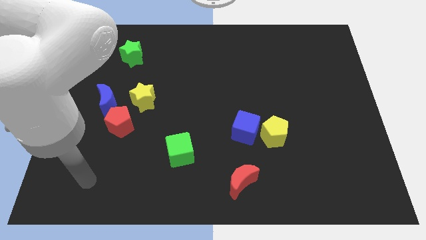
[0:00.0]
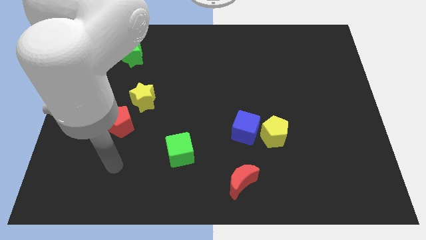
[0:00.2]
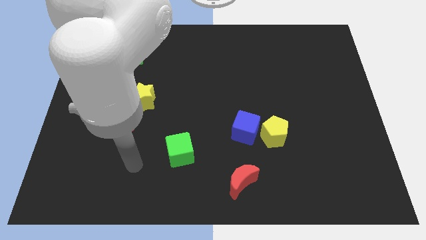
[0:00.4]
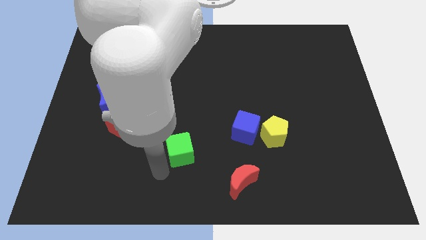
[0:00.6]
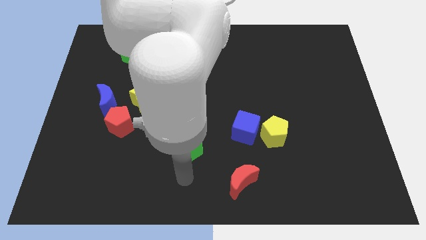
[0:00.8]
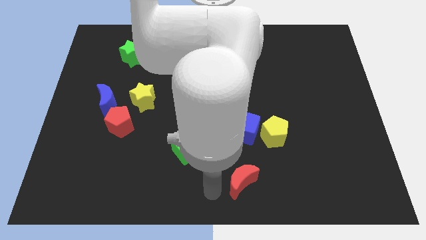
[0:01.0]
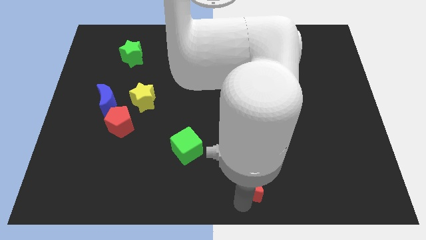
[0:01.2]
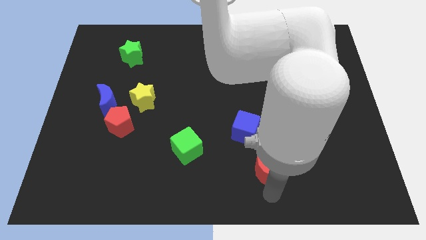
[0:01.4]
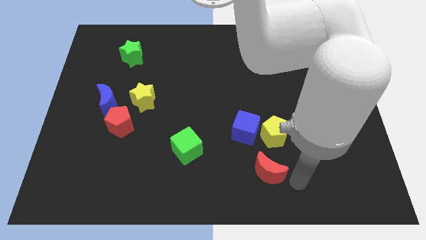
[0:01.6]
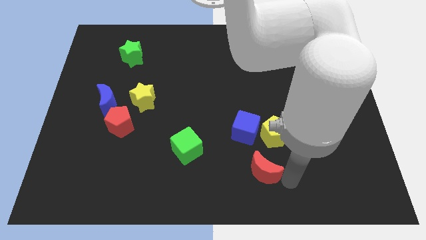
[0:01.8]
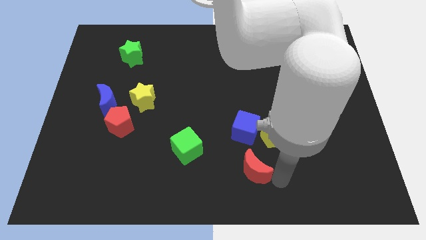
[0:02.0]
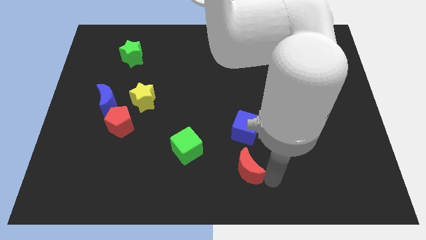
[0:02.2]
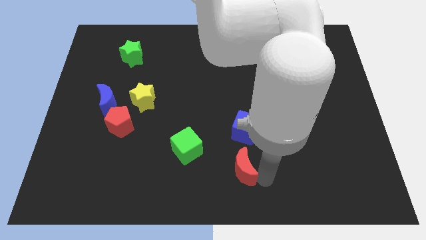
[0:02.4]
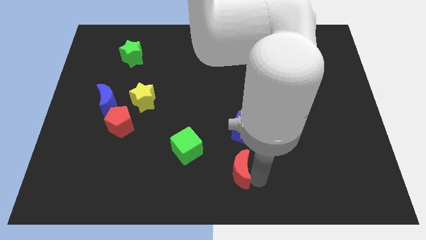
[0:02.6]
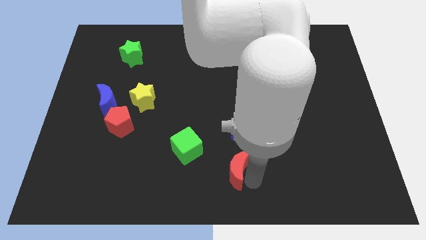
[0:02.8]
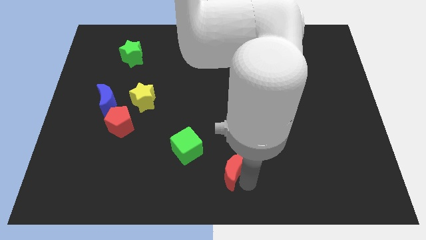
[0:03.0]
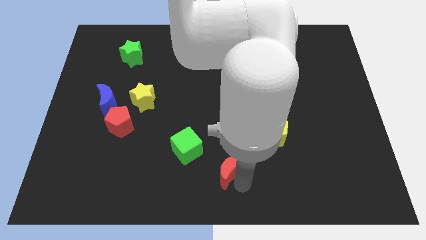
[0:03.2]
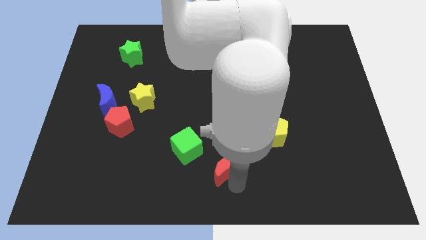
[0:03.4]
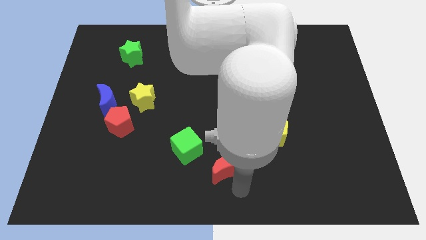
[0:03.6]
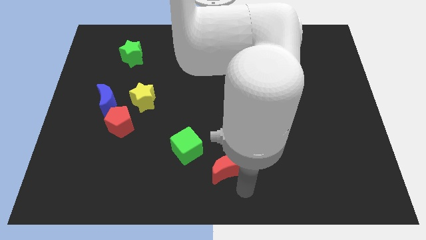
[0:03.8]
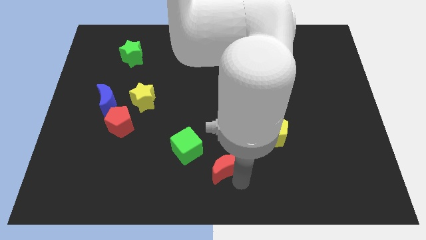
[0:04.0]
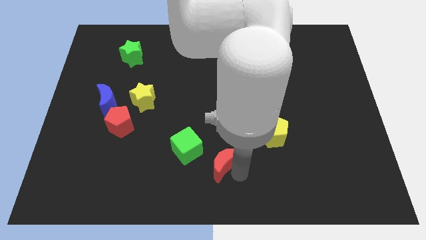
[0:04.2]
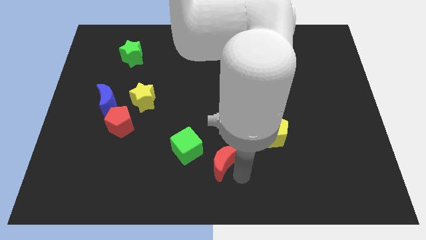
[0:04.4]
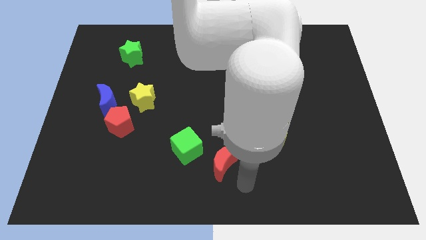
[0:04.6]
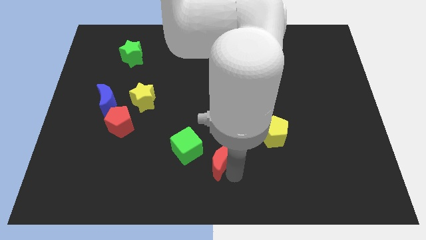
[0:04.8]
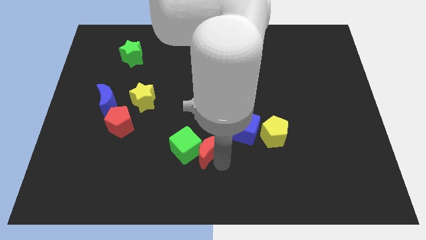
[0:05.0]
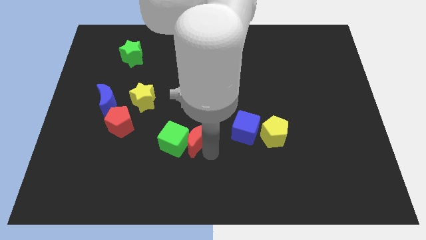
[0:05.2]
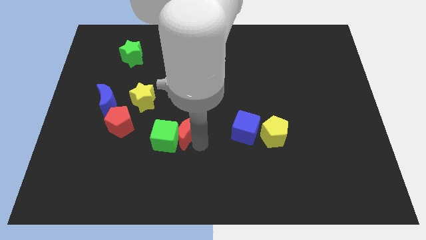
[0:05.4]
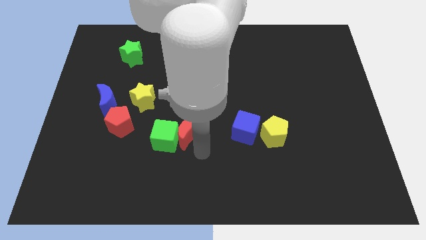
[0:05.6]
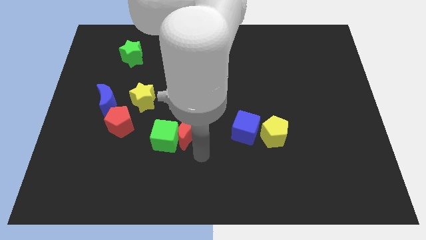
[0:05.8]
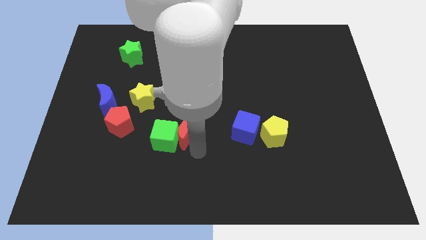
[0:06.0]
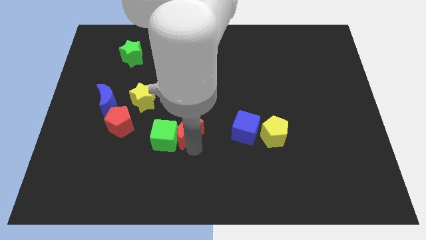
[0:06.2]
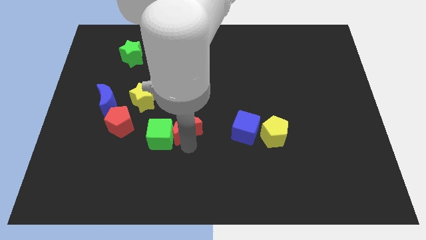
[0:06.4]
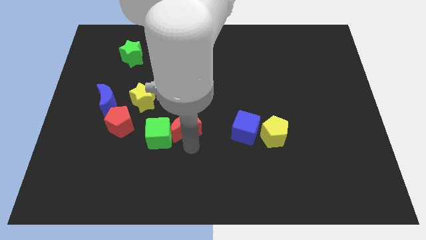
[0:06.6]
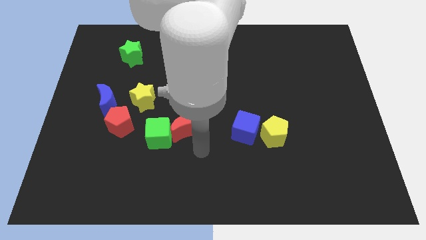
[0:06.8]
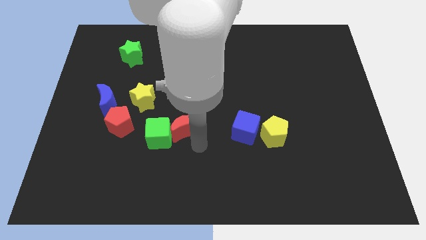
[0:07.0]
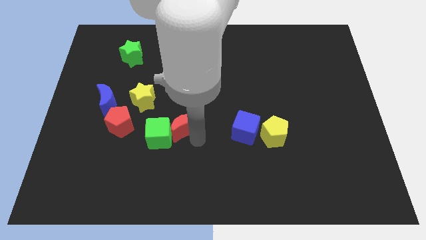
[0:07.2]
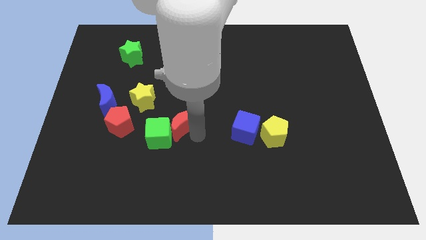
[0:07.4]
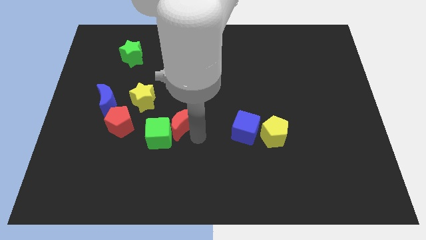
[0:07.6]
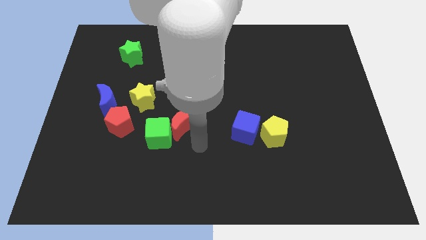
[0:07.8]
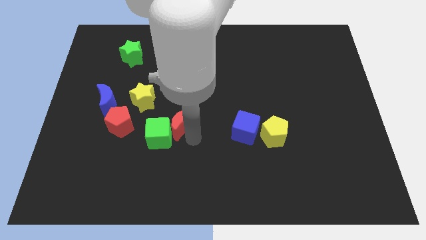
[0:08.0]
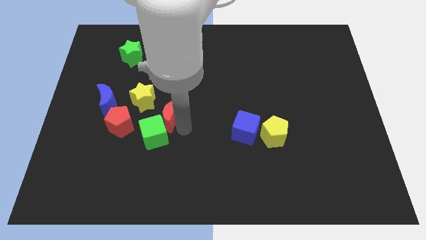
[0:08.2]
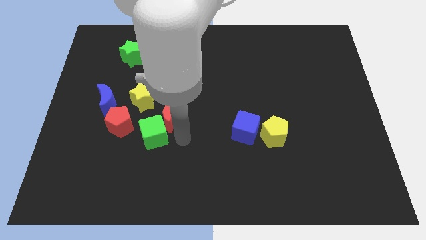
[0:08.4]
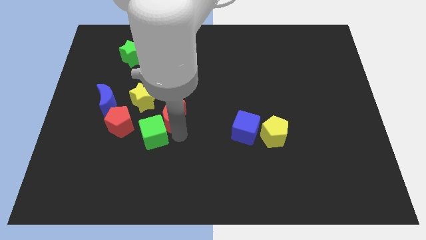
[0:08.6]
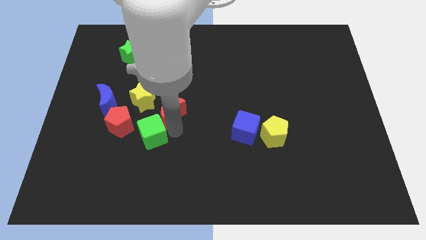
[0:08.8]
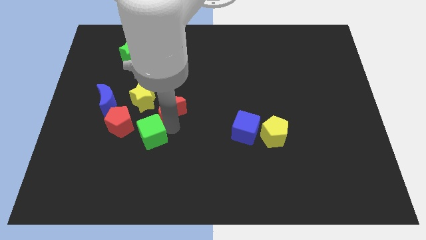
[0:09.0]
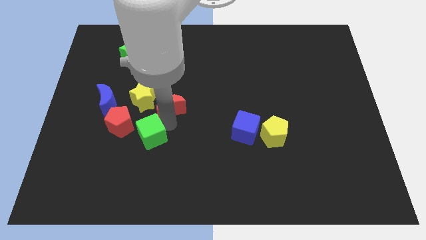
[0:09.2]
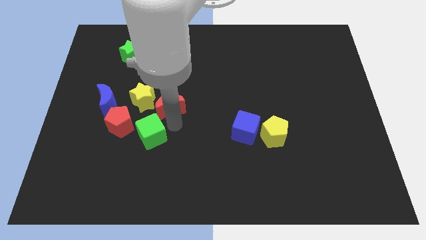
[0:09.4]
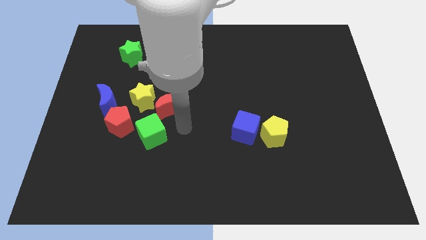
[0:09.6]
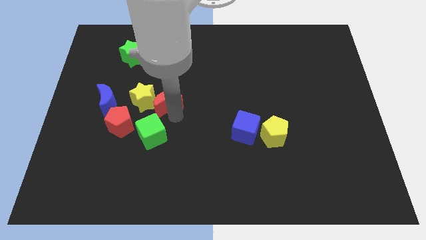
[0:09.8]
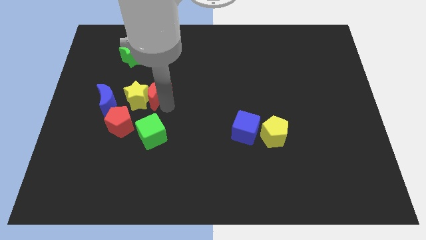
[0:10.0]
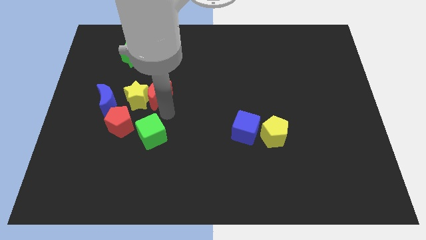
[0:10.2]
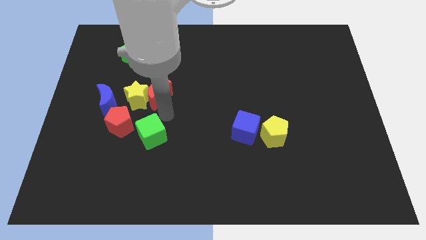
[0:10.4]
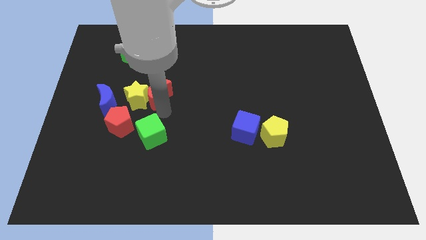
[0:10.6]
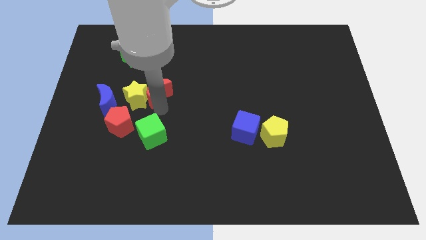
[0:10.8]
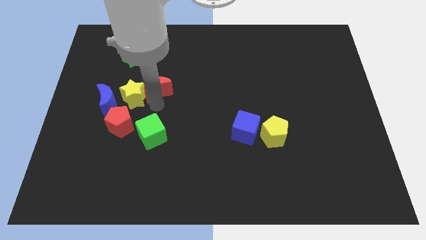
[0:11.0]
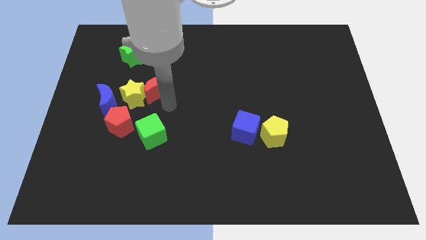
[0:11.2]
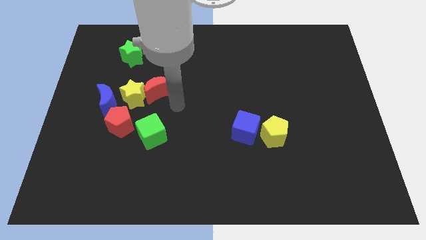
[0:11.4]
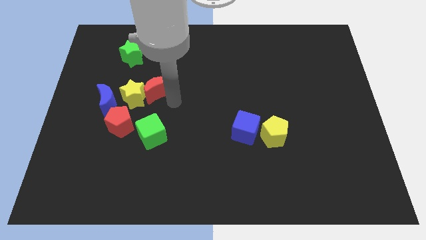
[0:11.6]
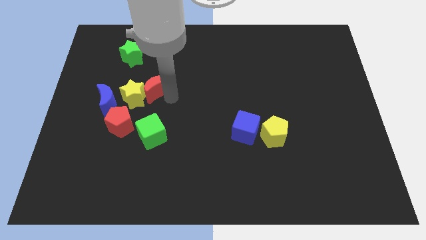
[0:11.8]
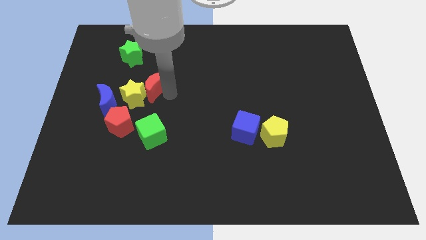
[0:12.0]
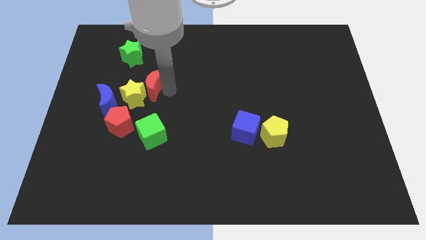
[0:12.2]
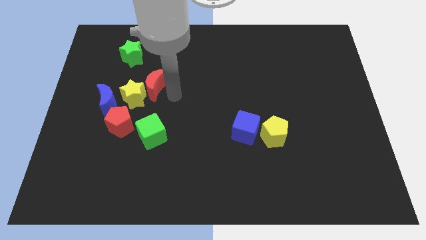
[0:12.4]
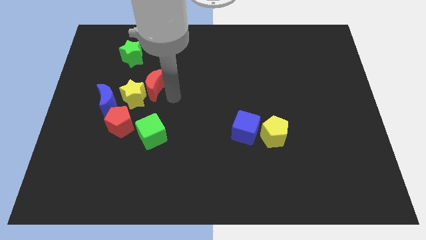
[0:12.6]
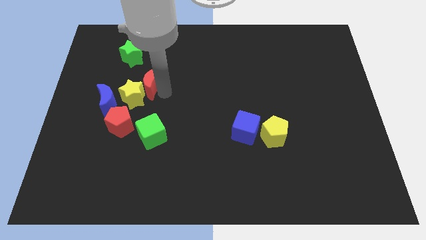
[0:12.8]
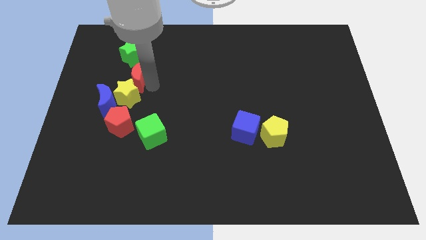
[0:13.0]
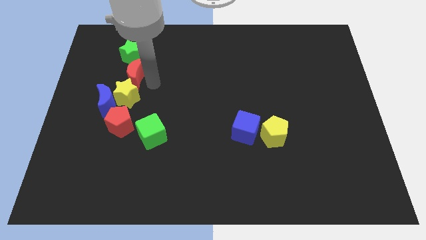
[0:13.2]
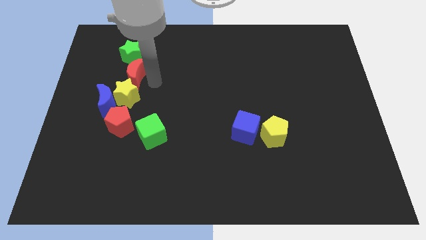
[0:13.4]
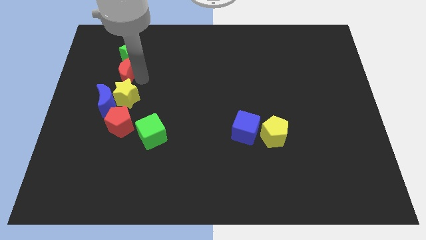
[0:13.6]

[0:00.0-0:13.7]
slide the red moon to the top of the blue moon
